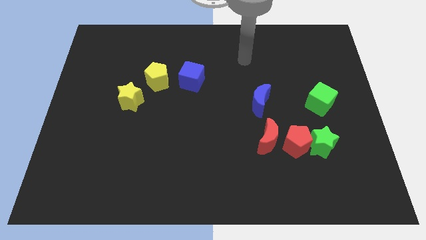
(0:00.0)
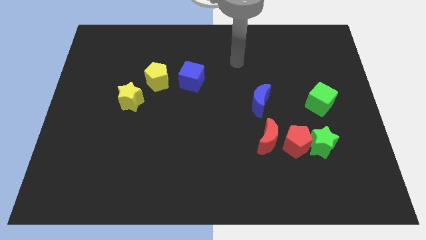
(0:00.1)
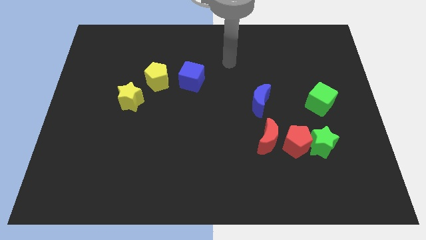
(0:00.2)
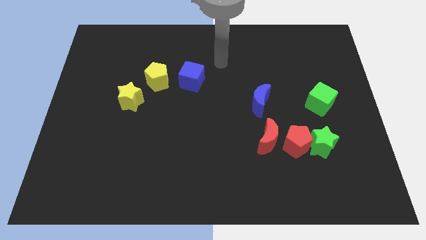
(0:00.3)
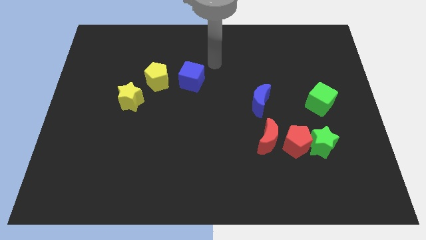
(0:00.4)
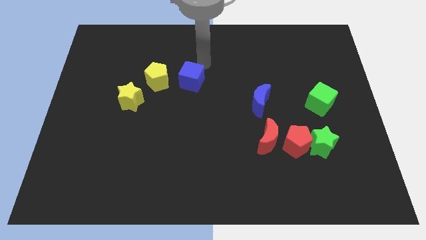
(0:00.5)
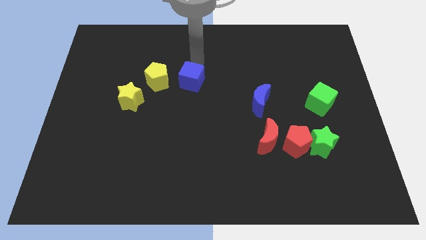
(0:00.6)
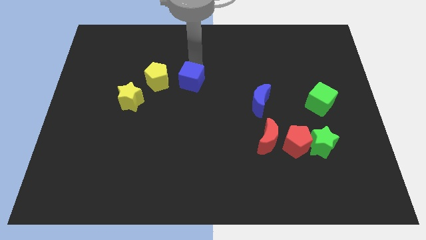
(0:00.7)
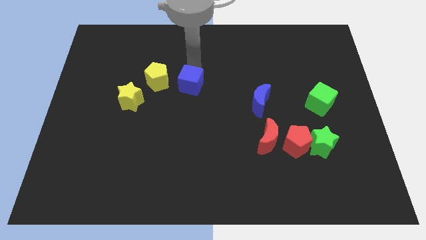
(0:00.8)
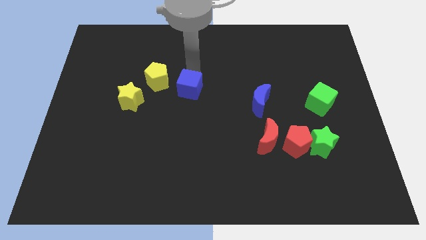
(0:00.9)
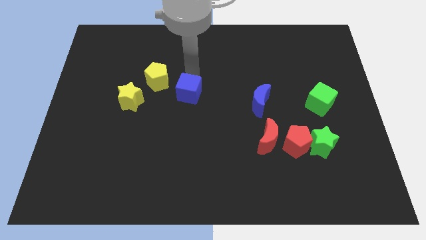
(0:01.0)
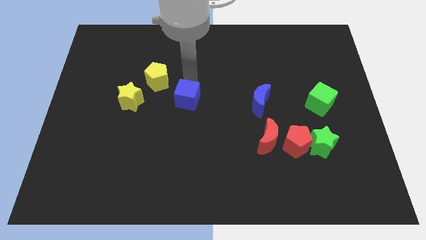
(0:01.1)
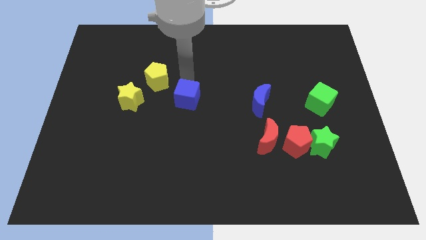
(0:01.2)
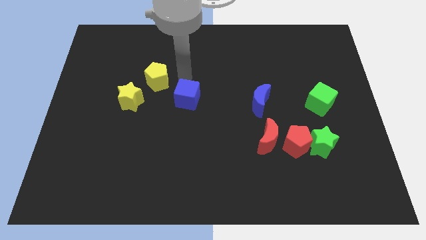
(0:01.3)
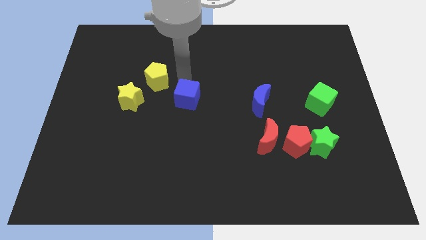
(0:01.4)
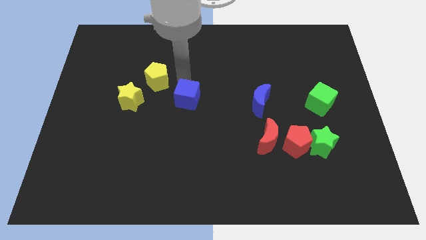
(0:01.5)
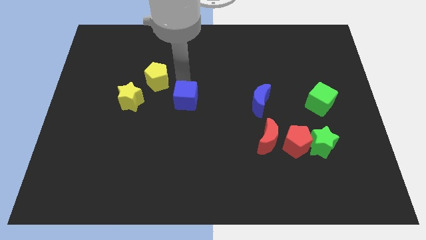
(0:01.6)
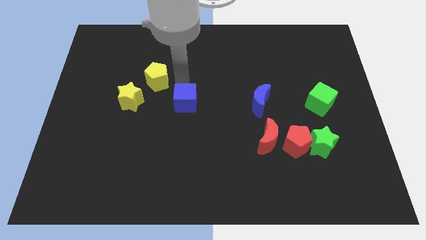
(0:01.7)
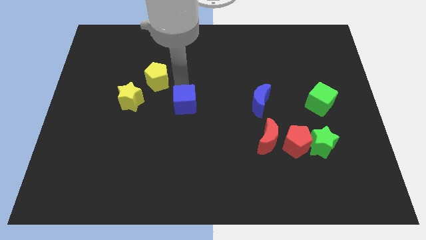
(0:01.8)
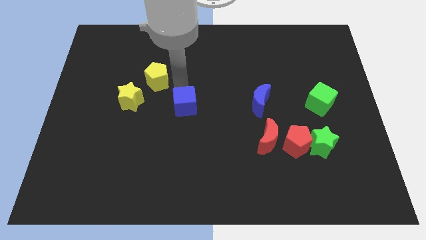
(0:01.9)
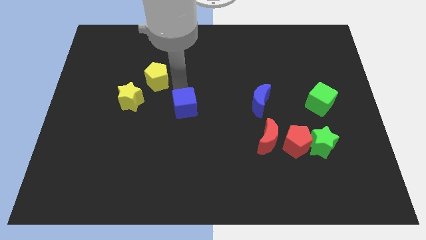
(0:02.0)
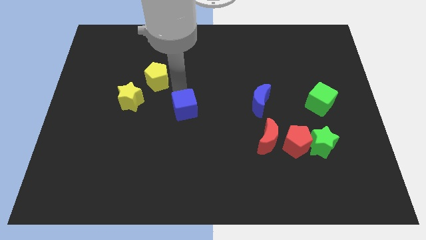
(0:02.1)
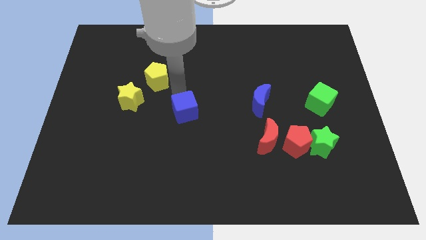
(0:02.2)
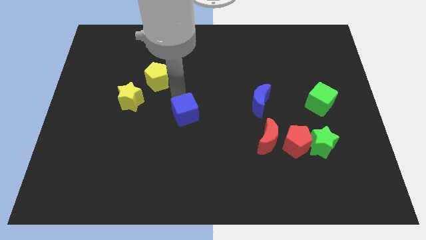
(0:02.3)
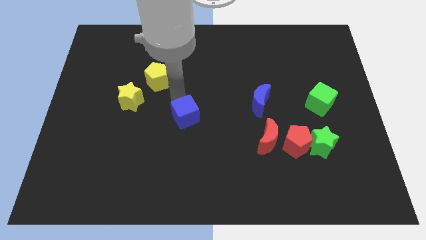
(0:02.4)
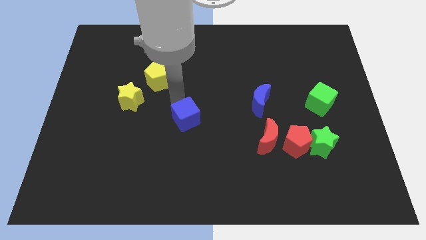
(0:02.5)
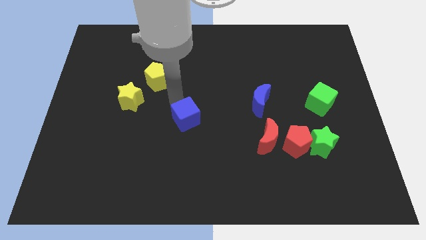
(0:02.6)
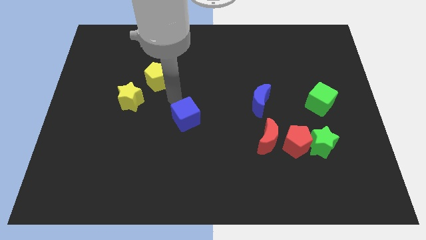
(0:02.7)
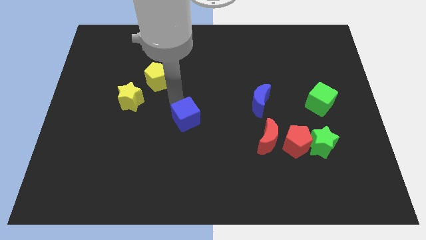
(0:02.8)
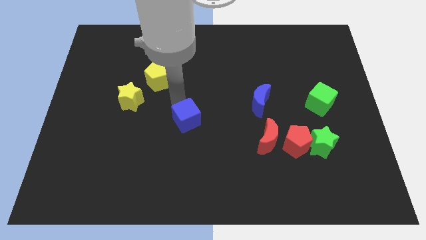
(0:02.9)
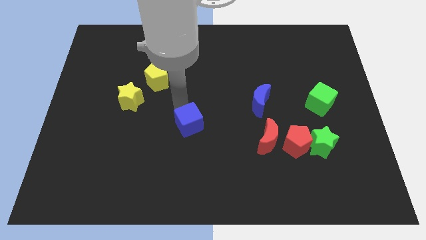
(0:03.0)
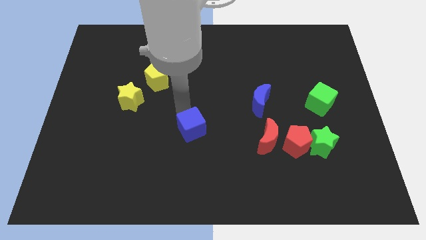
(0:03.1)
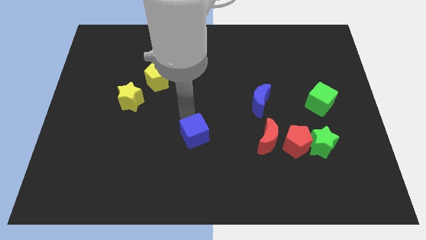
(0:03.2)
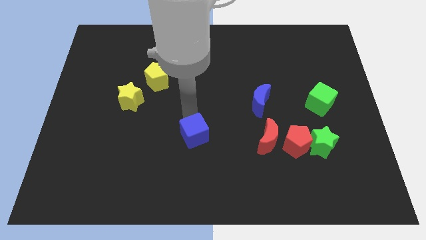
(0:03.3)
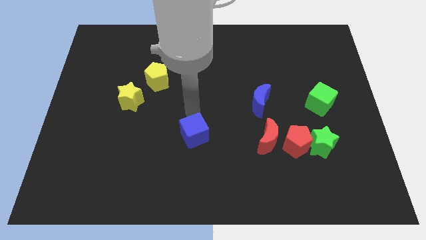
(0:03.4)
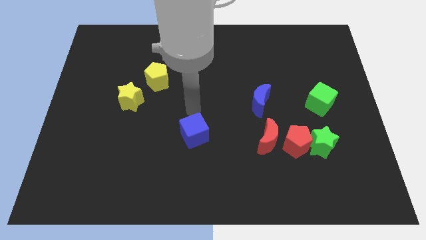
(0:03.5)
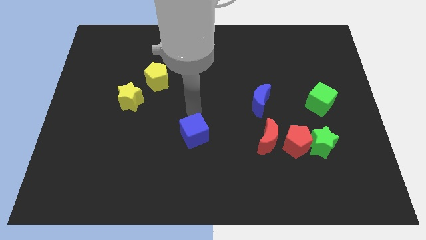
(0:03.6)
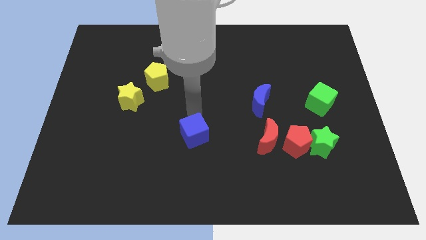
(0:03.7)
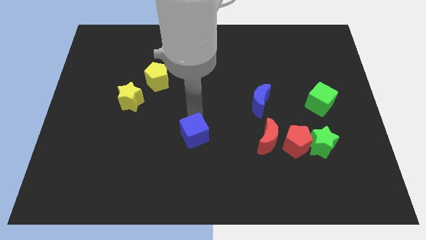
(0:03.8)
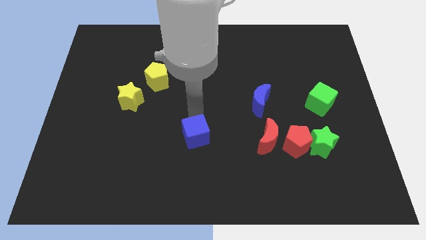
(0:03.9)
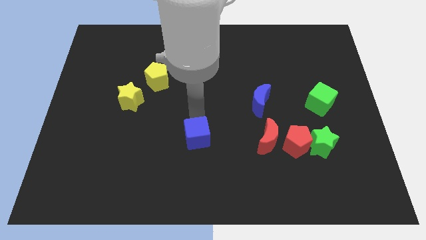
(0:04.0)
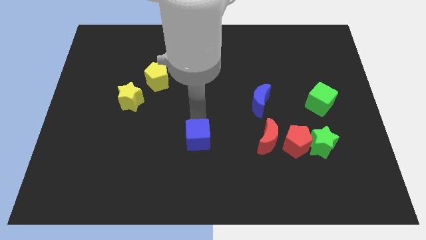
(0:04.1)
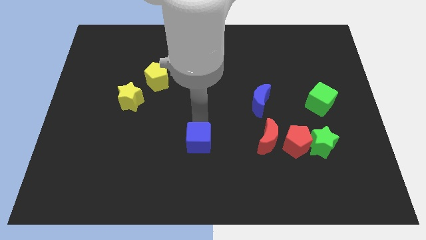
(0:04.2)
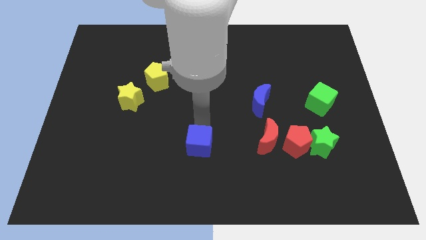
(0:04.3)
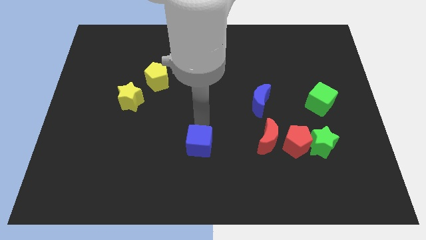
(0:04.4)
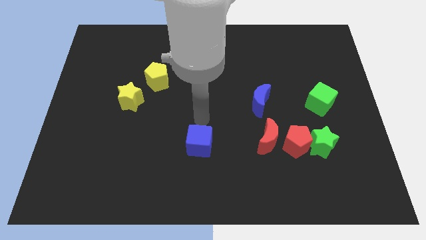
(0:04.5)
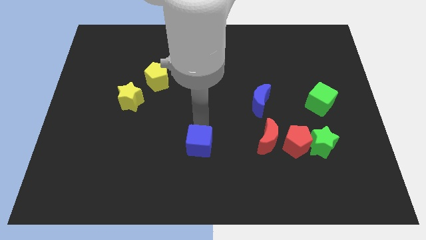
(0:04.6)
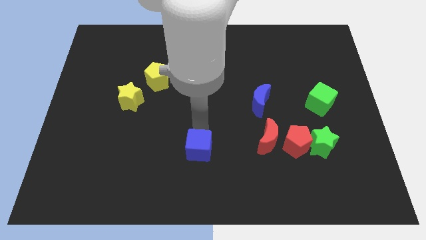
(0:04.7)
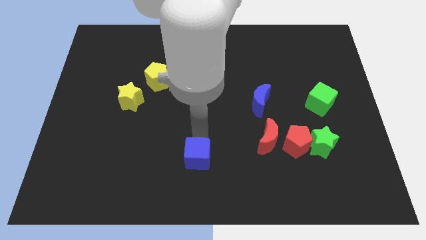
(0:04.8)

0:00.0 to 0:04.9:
put the blue cube to the bottom

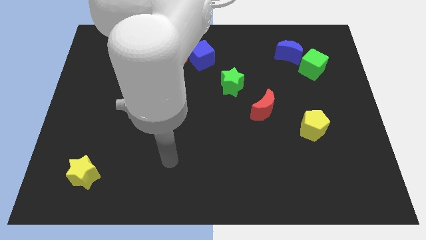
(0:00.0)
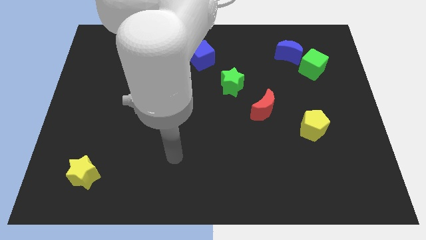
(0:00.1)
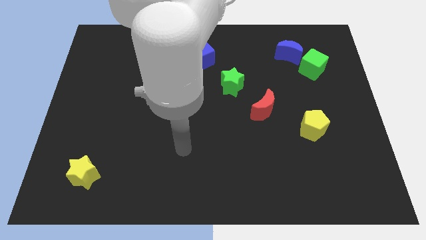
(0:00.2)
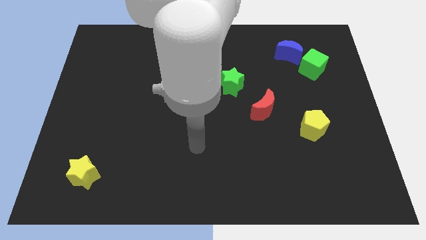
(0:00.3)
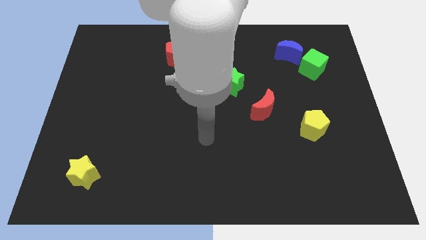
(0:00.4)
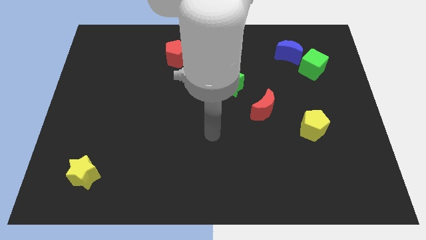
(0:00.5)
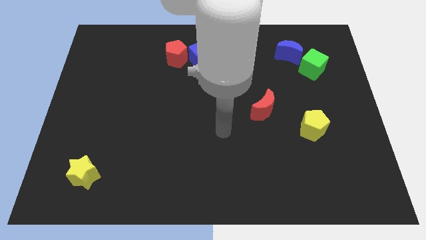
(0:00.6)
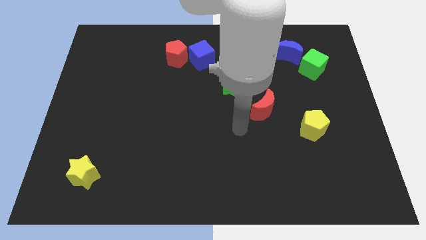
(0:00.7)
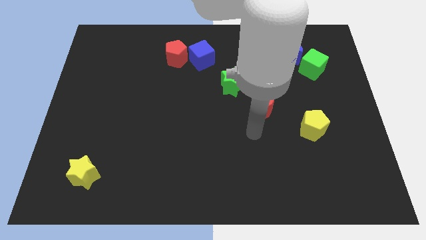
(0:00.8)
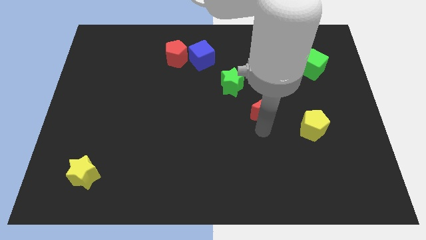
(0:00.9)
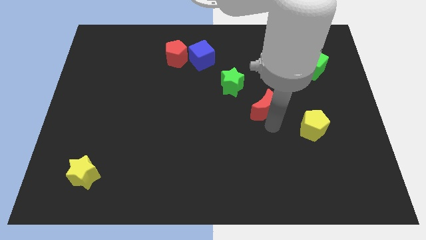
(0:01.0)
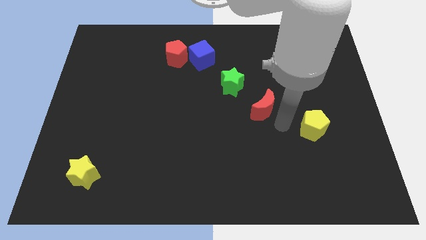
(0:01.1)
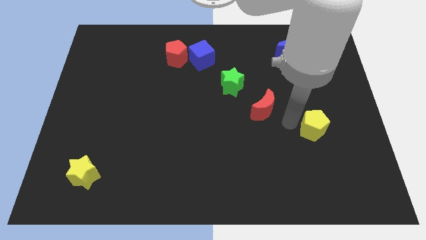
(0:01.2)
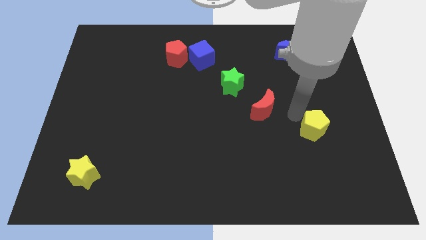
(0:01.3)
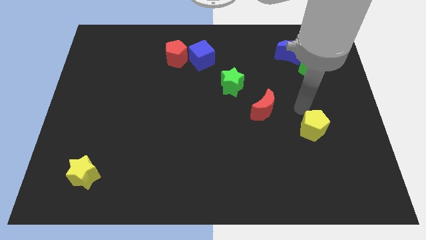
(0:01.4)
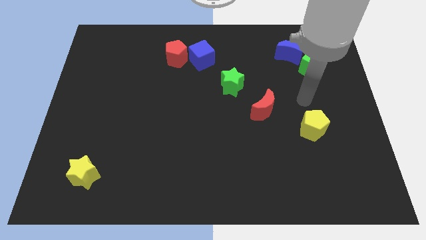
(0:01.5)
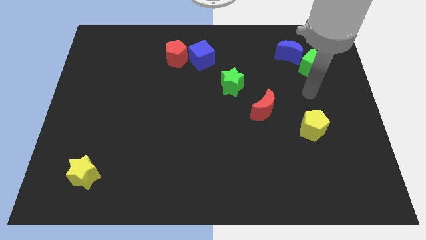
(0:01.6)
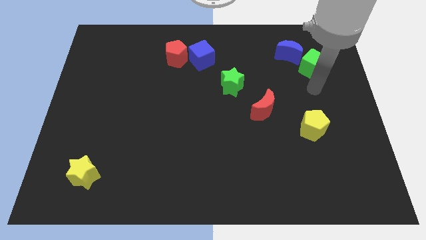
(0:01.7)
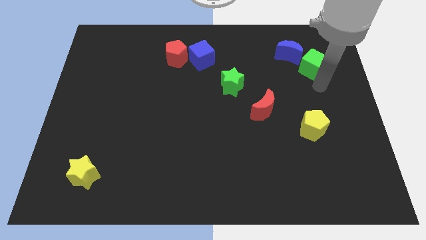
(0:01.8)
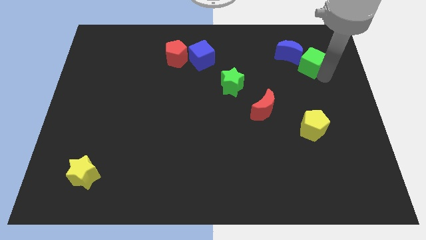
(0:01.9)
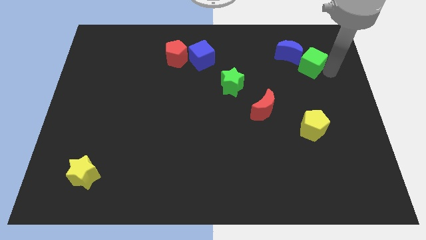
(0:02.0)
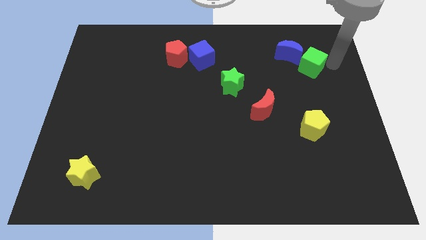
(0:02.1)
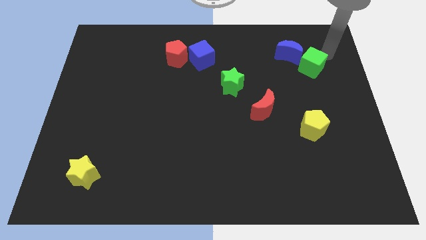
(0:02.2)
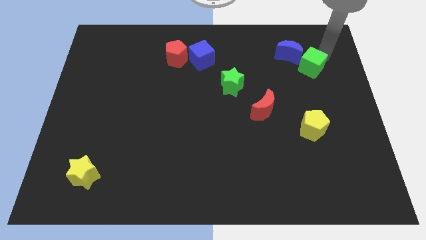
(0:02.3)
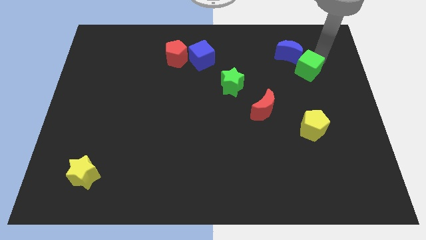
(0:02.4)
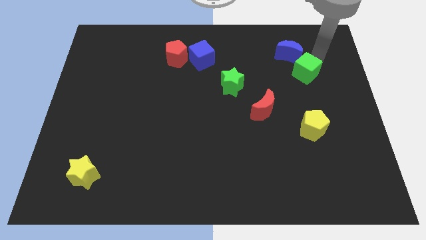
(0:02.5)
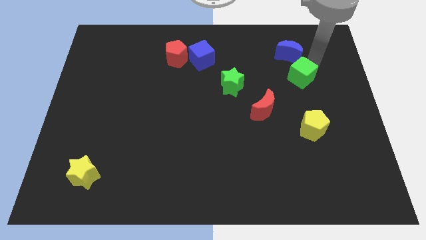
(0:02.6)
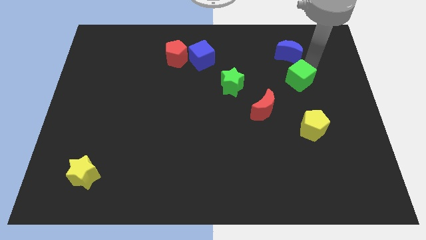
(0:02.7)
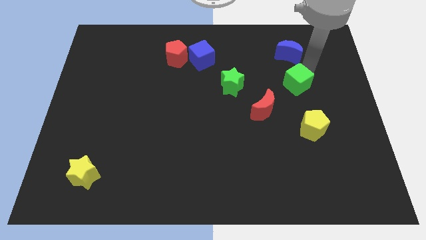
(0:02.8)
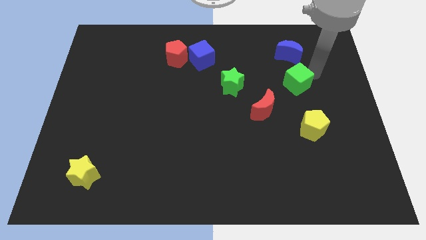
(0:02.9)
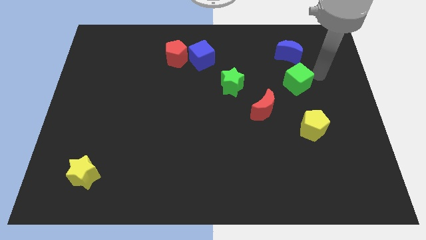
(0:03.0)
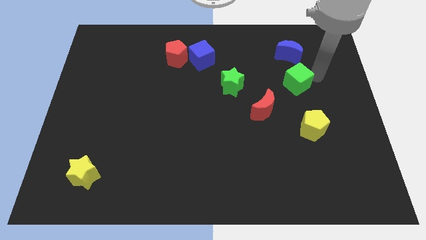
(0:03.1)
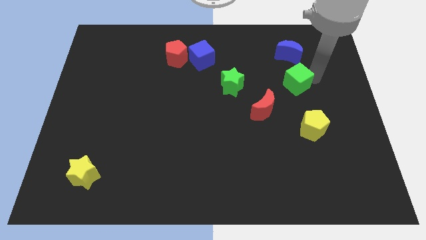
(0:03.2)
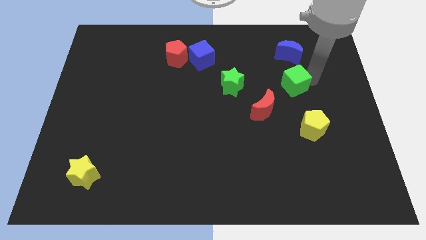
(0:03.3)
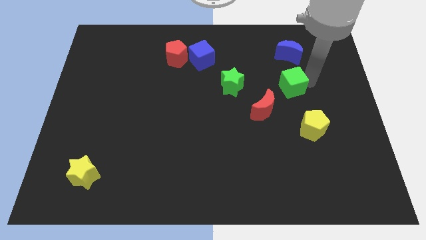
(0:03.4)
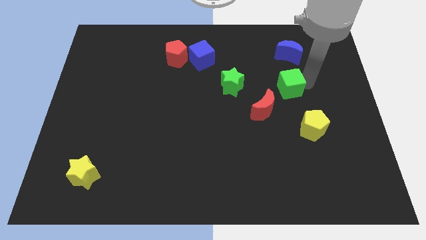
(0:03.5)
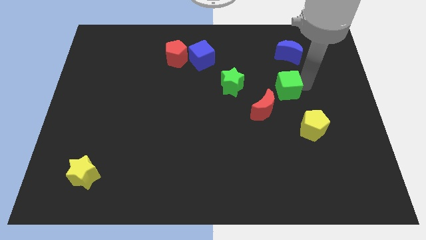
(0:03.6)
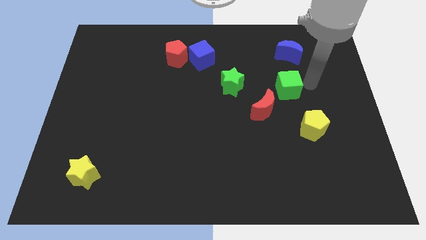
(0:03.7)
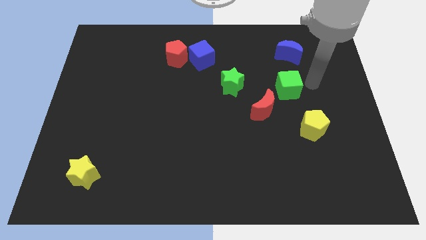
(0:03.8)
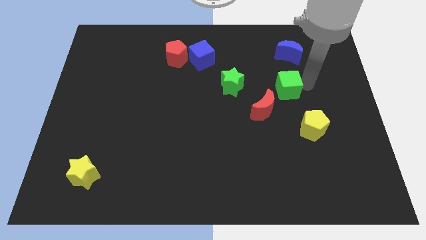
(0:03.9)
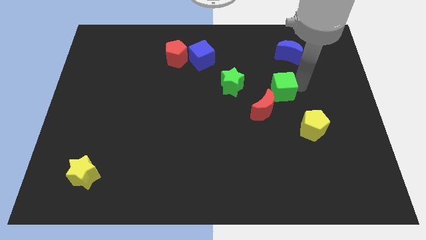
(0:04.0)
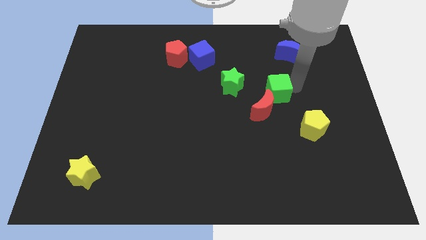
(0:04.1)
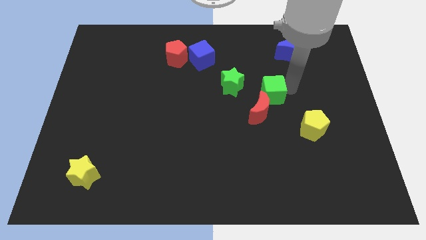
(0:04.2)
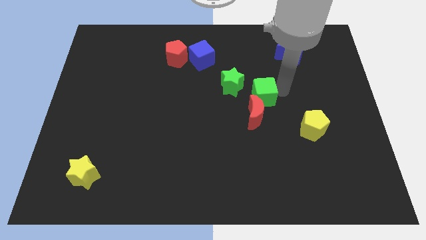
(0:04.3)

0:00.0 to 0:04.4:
put the green cube to the center of the board
